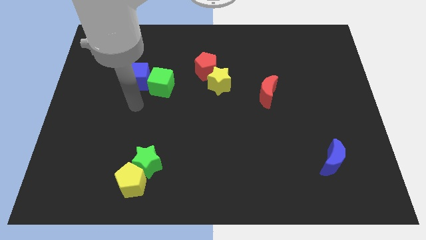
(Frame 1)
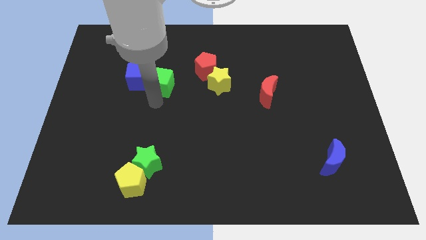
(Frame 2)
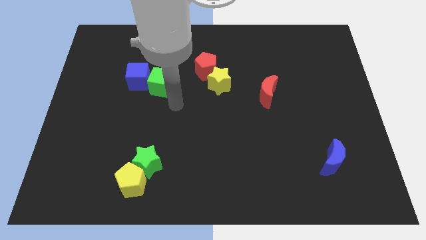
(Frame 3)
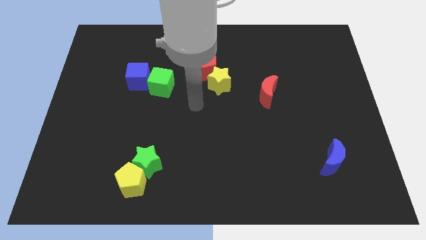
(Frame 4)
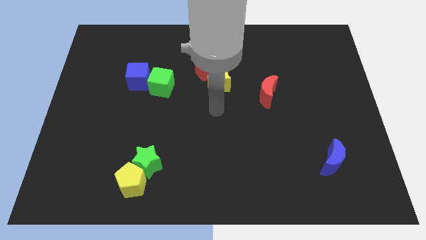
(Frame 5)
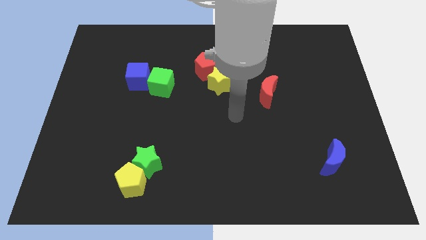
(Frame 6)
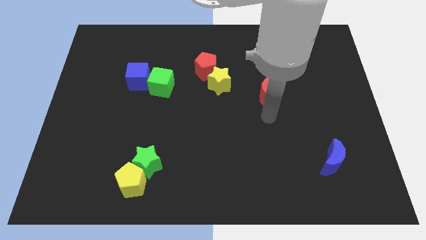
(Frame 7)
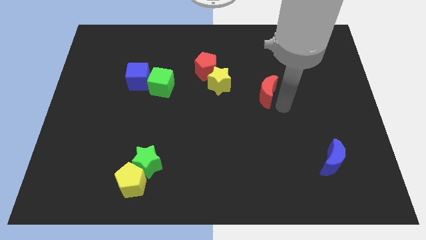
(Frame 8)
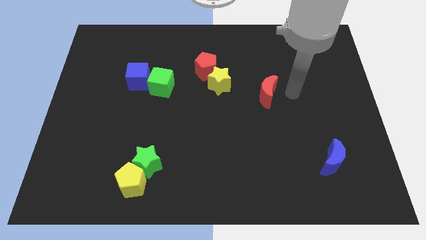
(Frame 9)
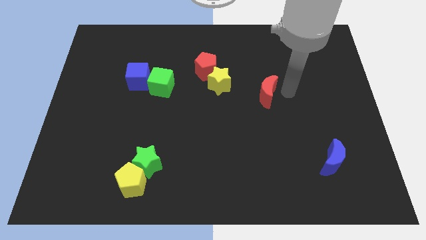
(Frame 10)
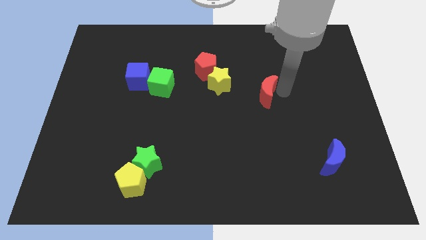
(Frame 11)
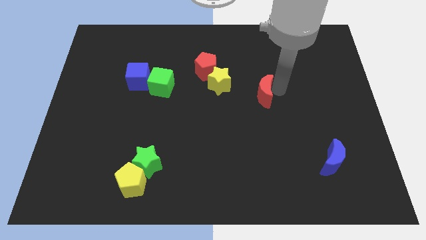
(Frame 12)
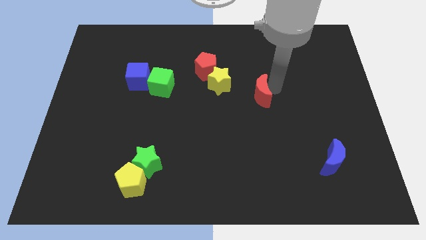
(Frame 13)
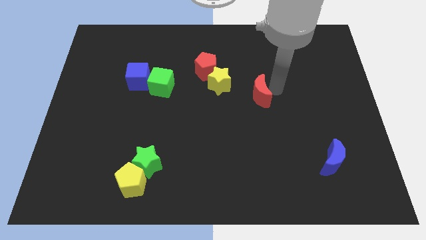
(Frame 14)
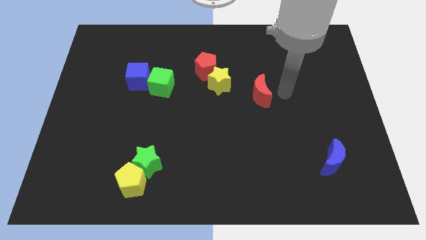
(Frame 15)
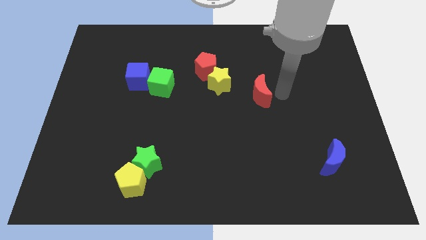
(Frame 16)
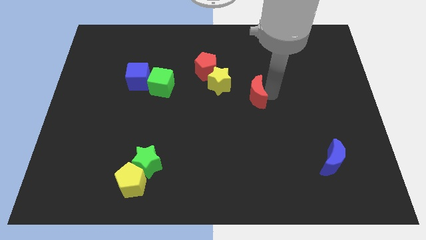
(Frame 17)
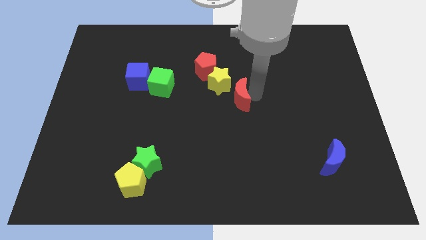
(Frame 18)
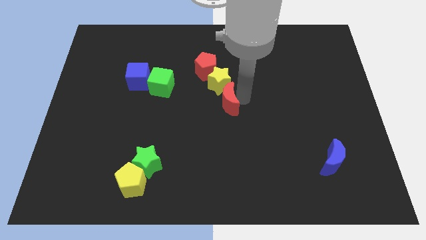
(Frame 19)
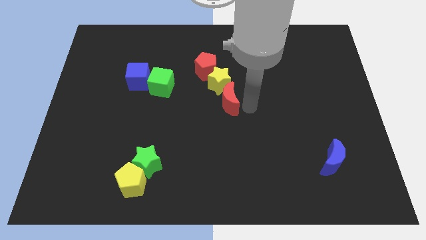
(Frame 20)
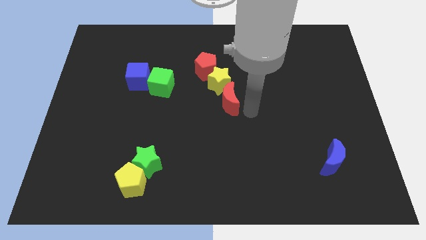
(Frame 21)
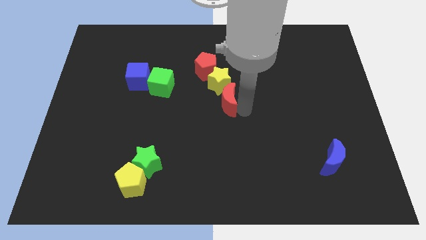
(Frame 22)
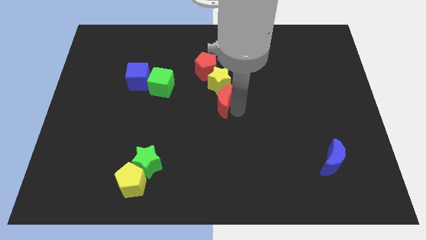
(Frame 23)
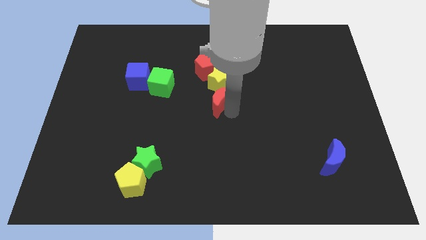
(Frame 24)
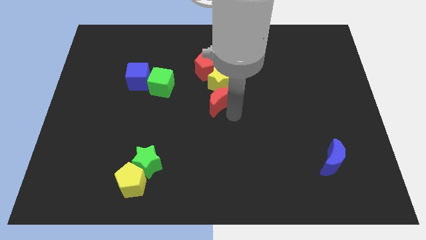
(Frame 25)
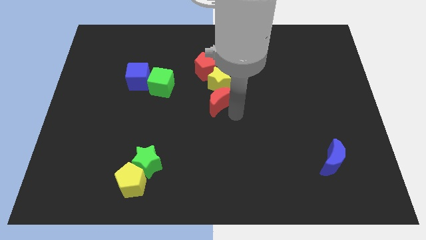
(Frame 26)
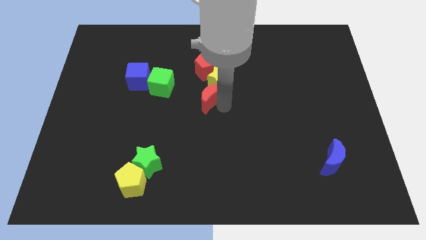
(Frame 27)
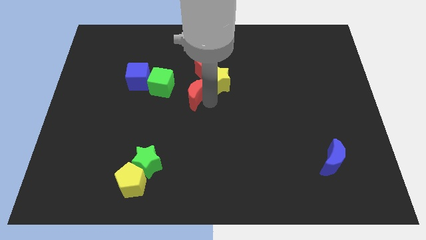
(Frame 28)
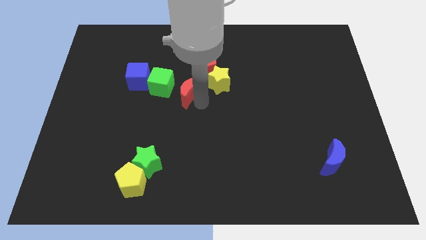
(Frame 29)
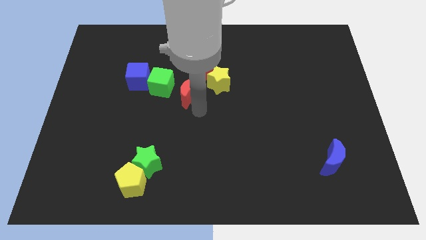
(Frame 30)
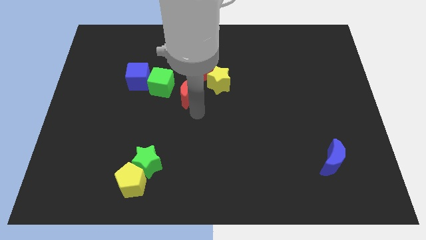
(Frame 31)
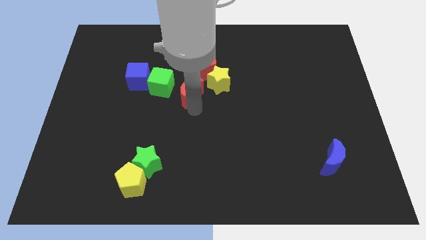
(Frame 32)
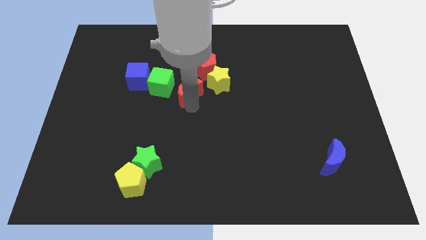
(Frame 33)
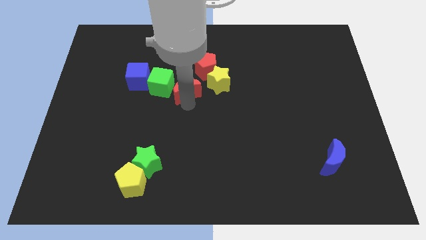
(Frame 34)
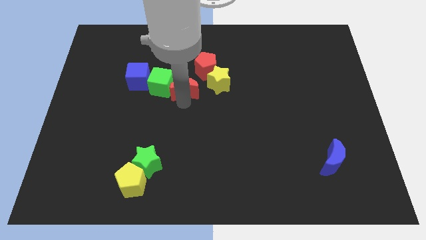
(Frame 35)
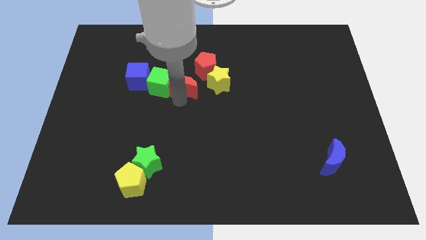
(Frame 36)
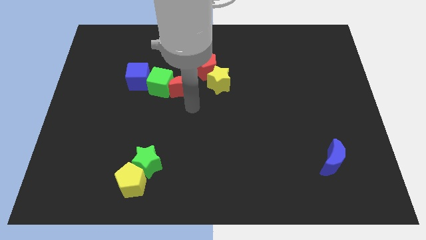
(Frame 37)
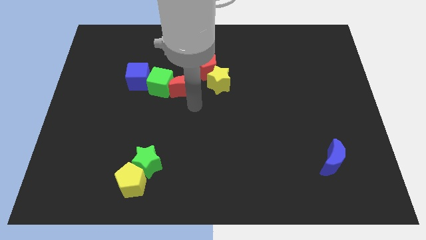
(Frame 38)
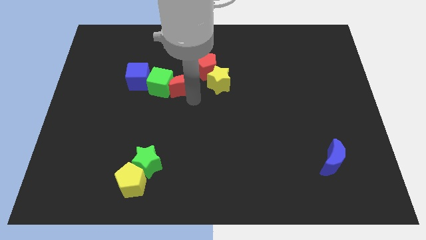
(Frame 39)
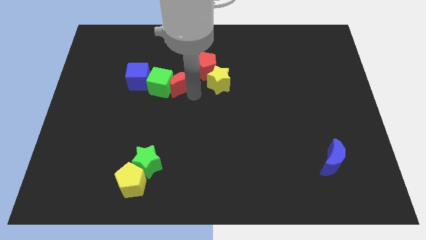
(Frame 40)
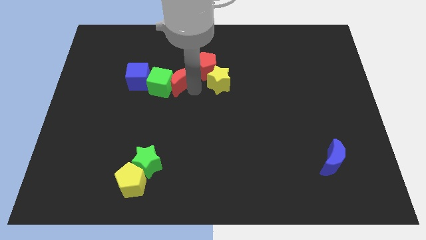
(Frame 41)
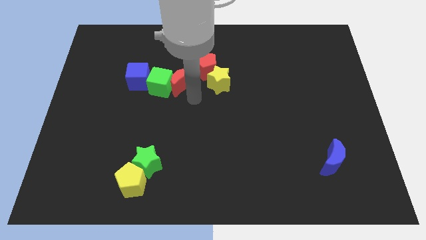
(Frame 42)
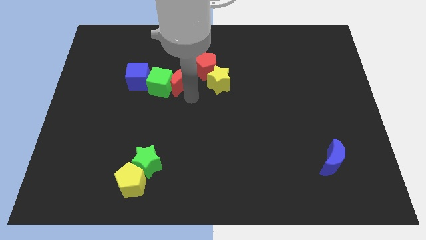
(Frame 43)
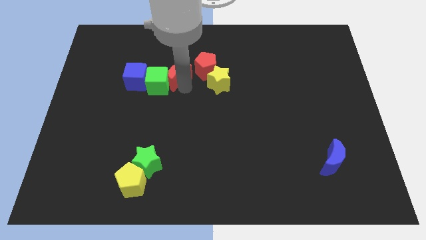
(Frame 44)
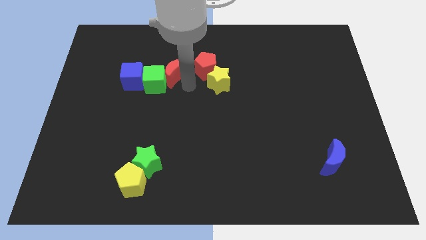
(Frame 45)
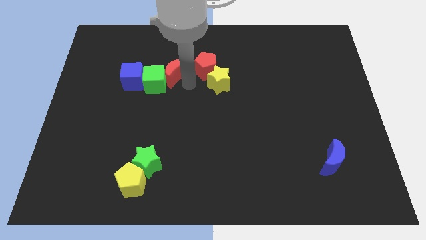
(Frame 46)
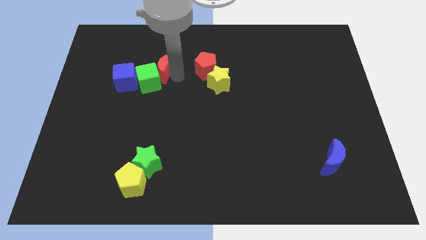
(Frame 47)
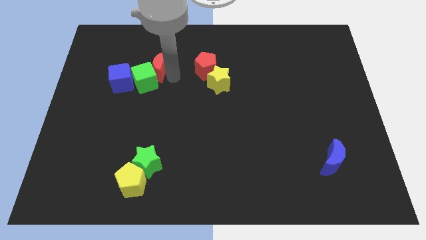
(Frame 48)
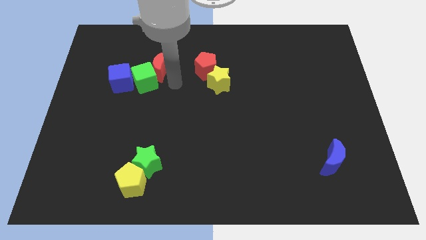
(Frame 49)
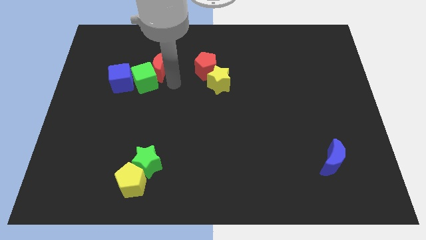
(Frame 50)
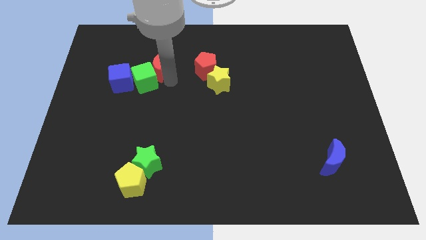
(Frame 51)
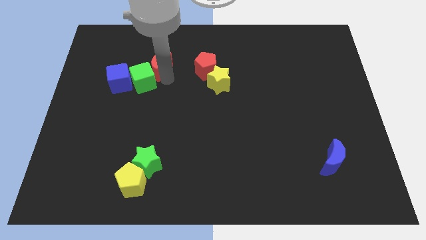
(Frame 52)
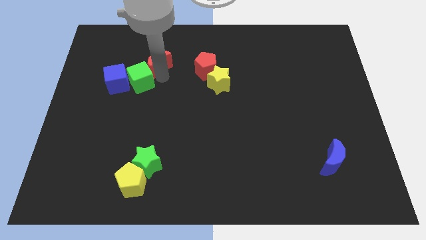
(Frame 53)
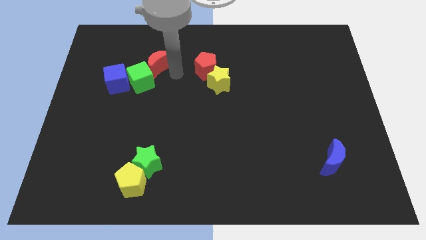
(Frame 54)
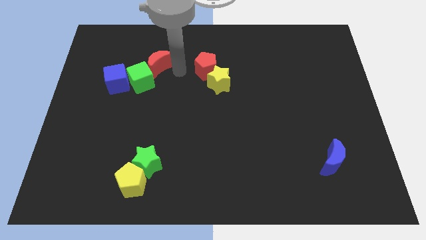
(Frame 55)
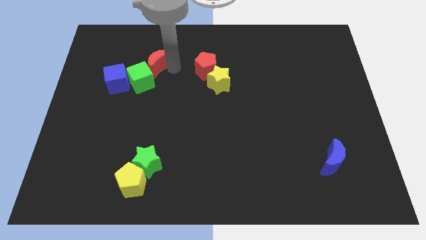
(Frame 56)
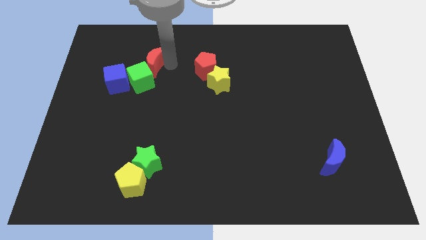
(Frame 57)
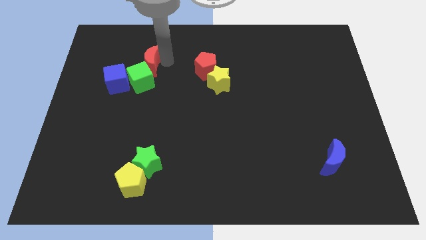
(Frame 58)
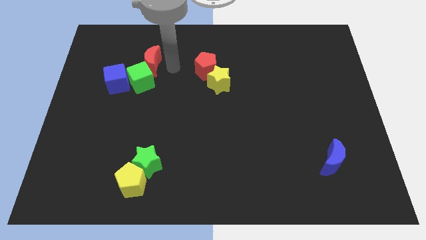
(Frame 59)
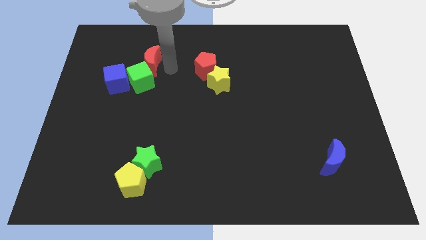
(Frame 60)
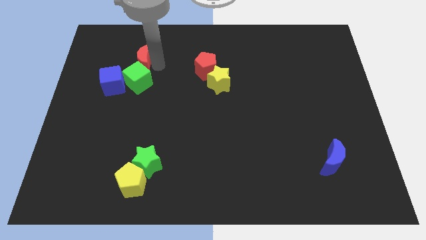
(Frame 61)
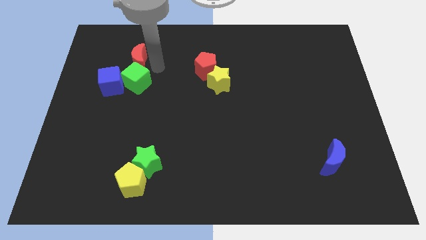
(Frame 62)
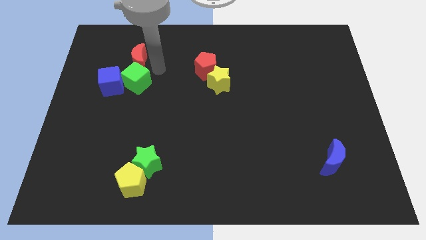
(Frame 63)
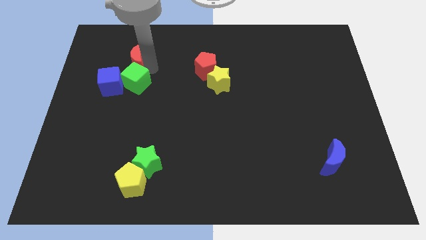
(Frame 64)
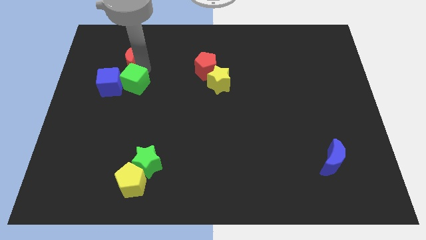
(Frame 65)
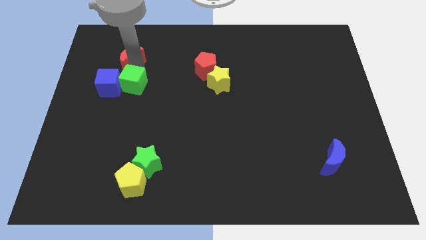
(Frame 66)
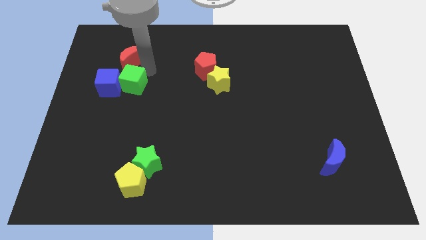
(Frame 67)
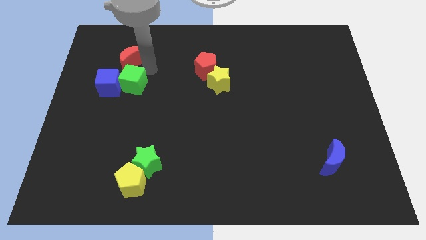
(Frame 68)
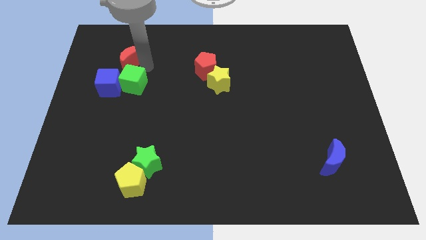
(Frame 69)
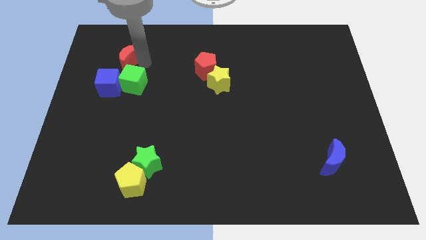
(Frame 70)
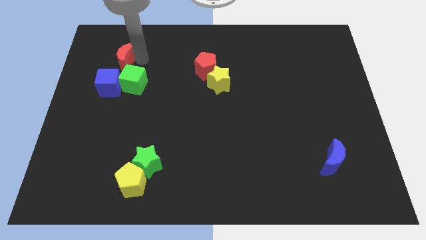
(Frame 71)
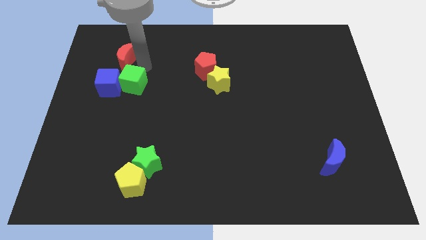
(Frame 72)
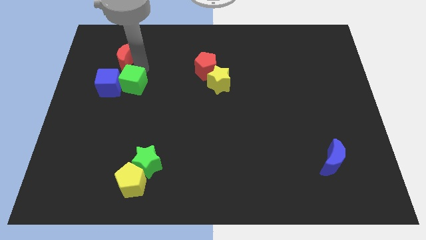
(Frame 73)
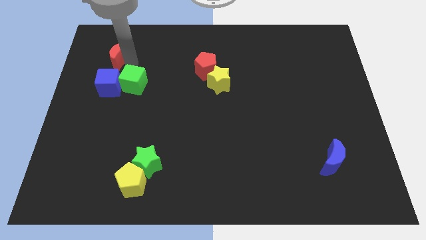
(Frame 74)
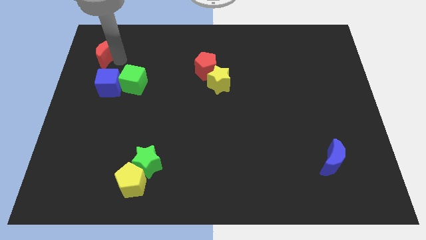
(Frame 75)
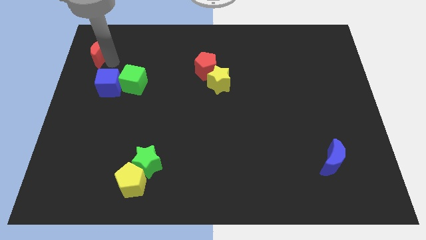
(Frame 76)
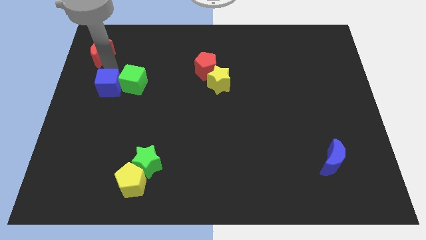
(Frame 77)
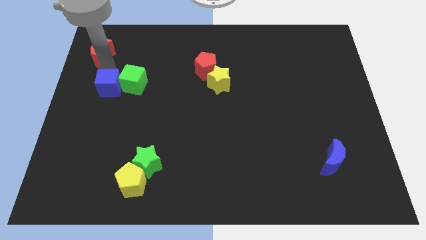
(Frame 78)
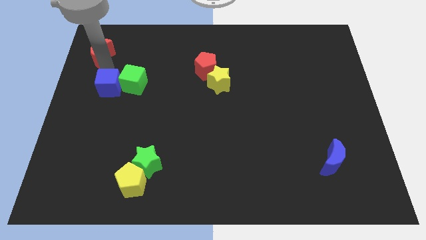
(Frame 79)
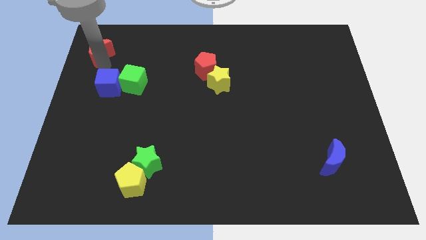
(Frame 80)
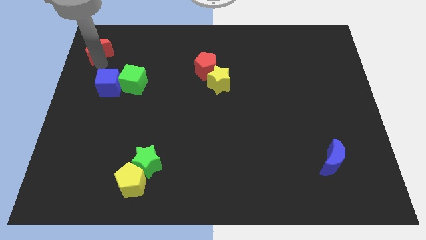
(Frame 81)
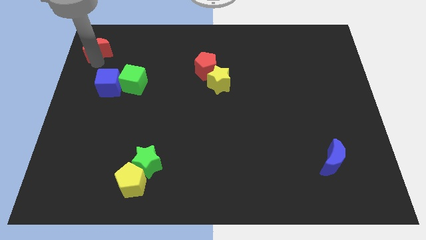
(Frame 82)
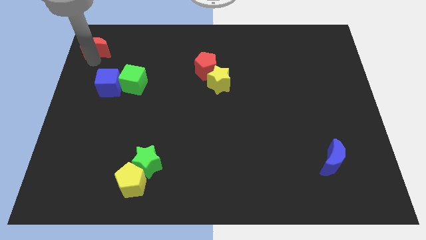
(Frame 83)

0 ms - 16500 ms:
push the red moon to the top left corner
